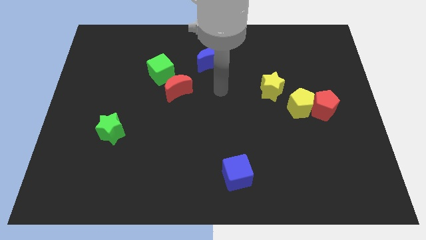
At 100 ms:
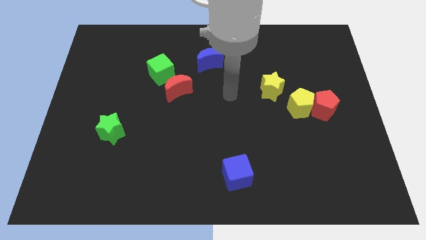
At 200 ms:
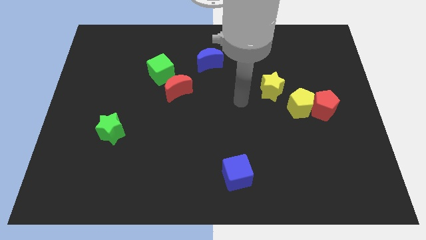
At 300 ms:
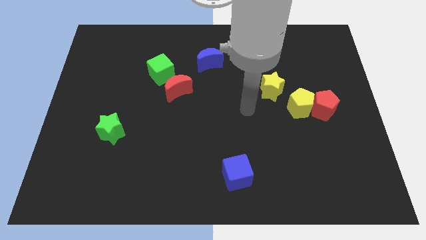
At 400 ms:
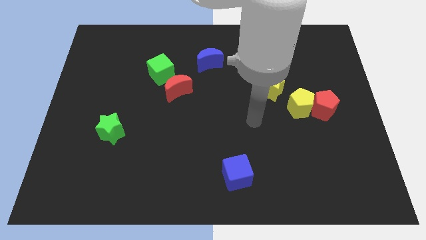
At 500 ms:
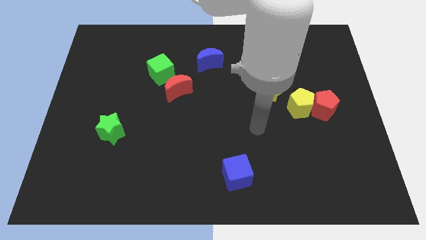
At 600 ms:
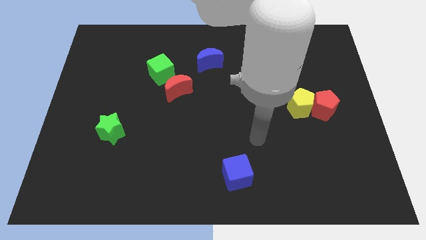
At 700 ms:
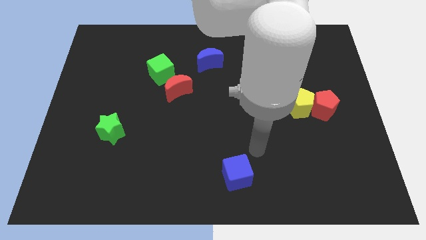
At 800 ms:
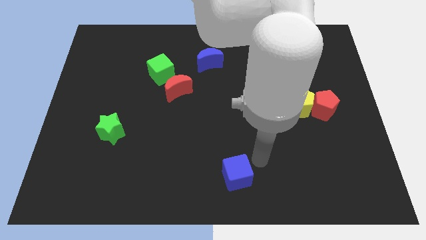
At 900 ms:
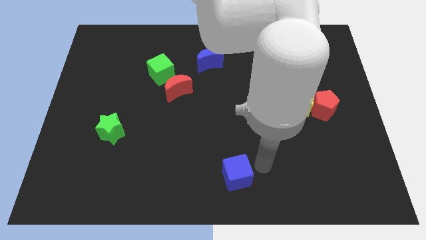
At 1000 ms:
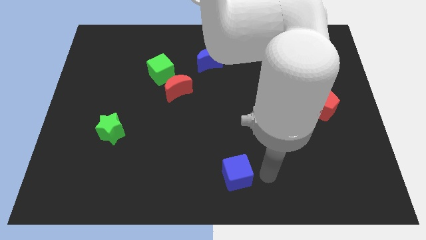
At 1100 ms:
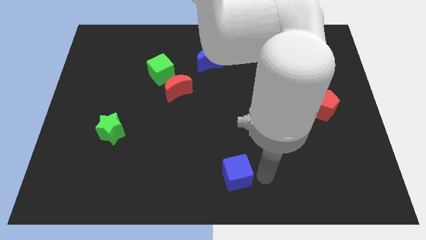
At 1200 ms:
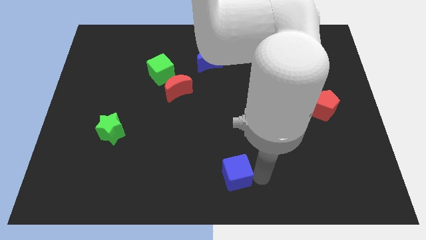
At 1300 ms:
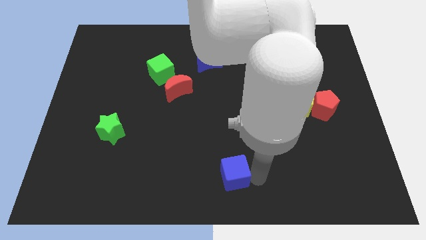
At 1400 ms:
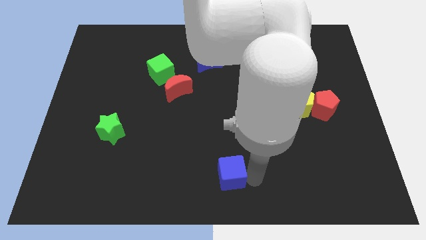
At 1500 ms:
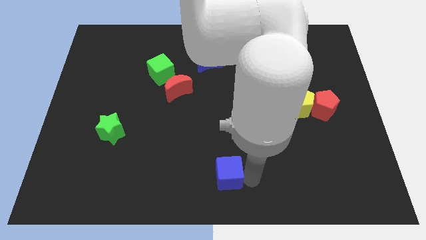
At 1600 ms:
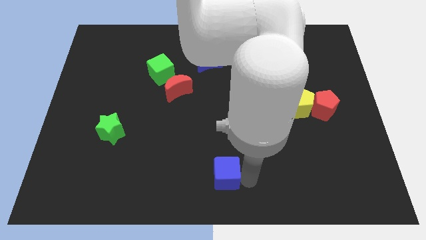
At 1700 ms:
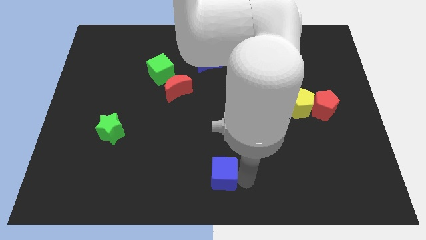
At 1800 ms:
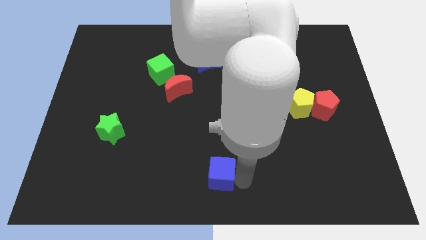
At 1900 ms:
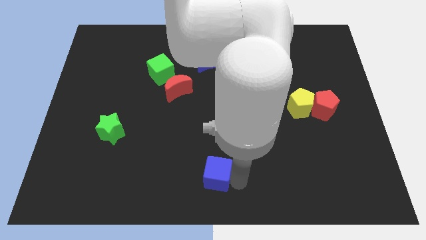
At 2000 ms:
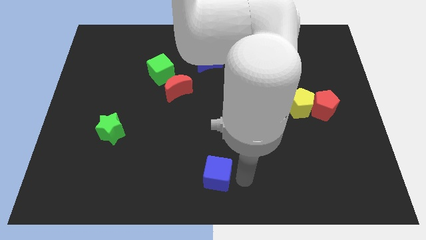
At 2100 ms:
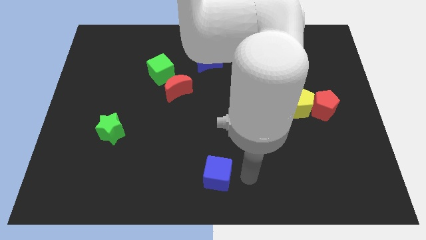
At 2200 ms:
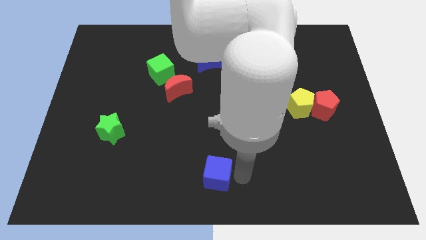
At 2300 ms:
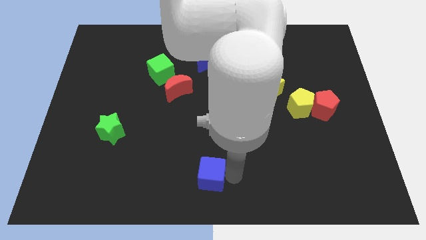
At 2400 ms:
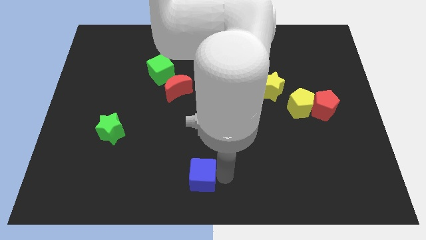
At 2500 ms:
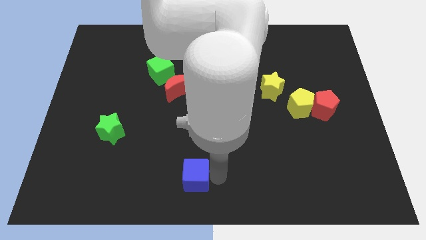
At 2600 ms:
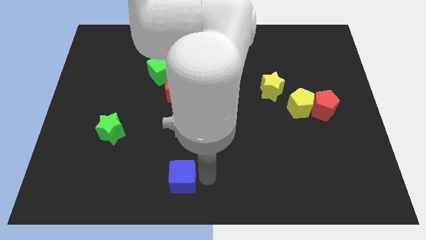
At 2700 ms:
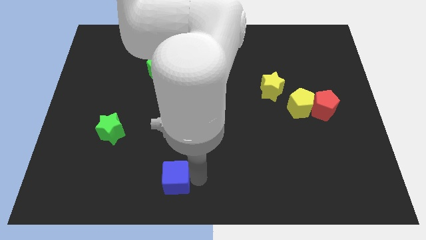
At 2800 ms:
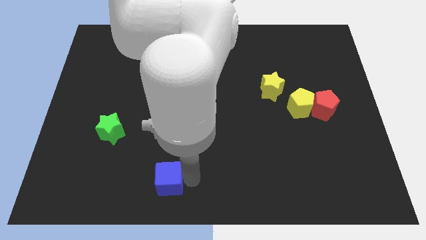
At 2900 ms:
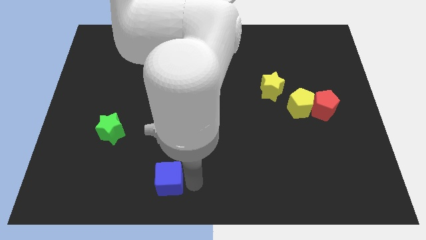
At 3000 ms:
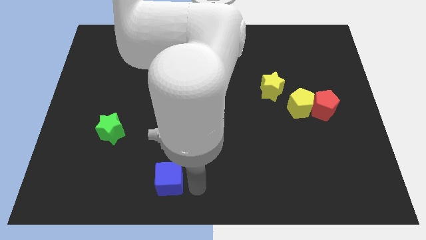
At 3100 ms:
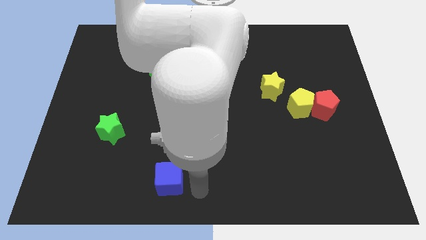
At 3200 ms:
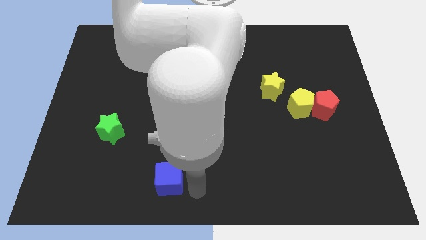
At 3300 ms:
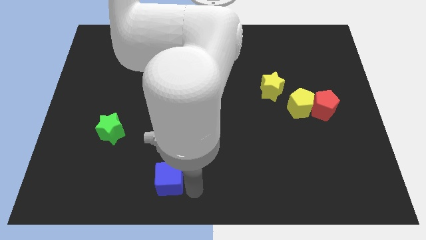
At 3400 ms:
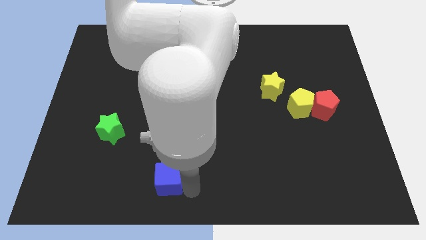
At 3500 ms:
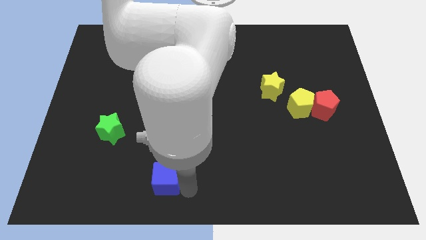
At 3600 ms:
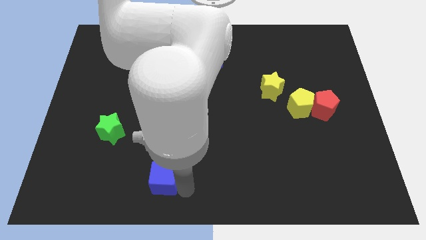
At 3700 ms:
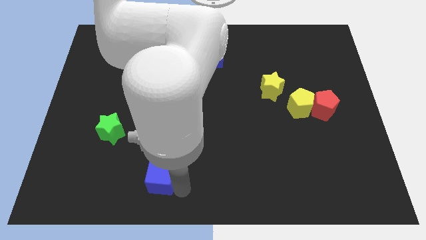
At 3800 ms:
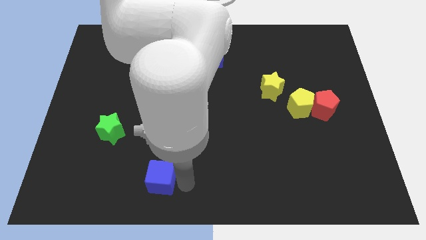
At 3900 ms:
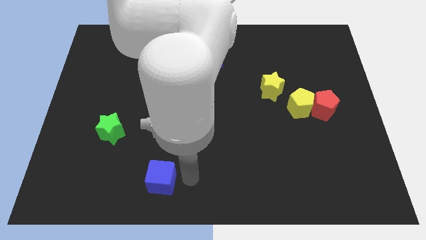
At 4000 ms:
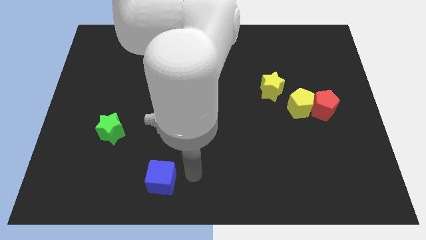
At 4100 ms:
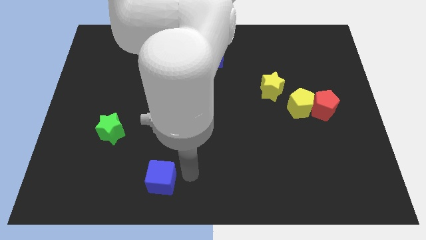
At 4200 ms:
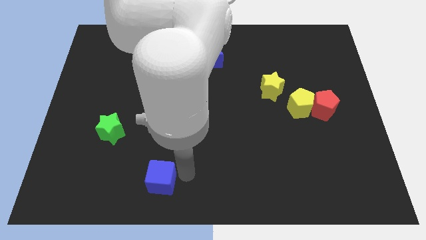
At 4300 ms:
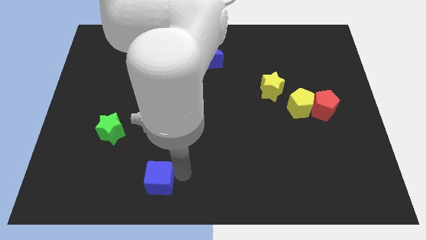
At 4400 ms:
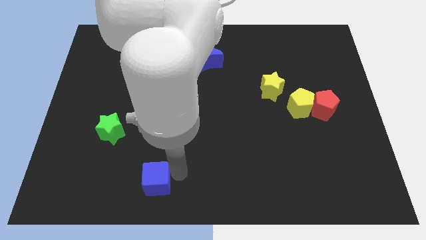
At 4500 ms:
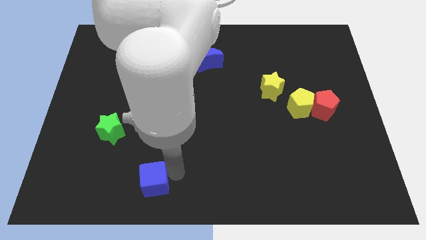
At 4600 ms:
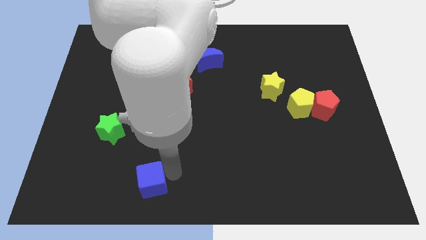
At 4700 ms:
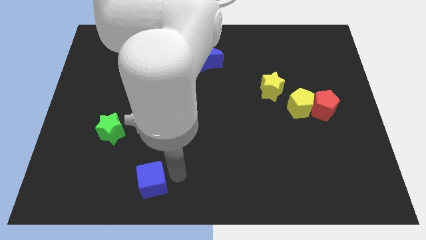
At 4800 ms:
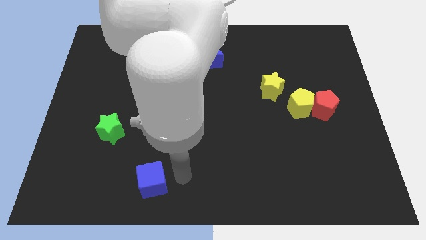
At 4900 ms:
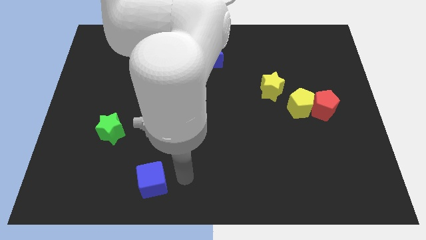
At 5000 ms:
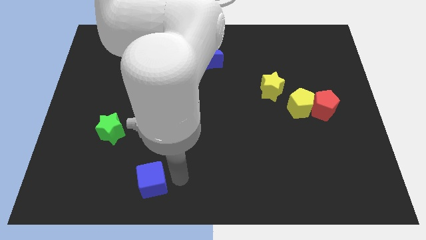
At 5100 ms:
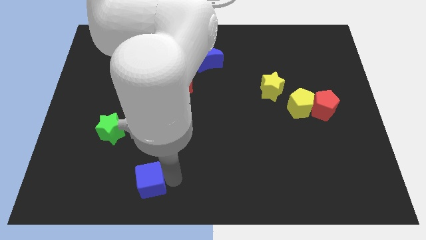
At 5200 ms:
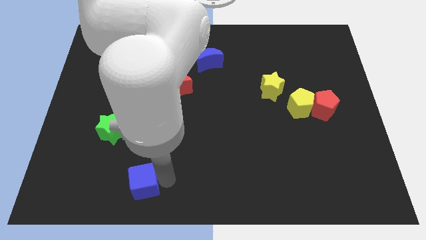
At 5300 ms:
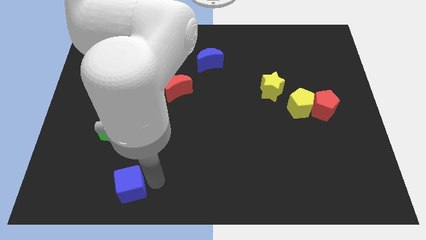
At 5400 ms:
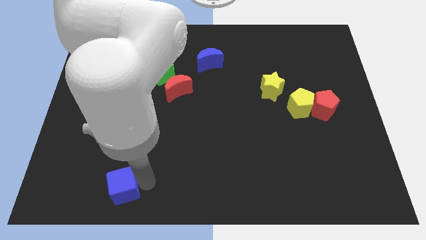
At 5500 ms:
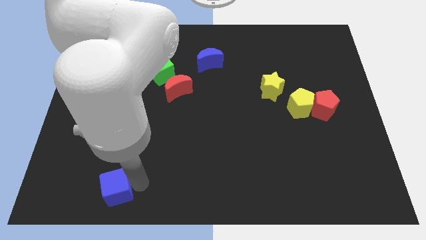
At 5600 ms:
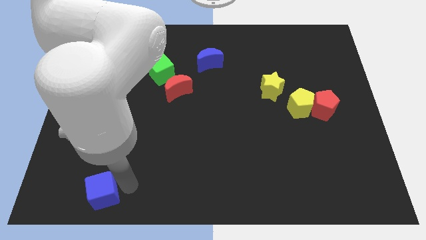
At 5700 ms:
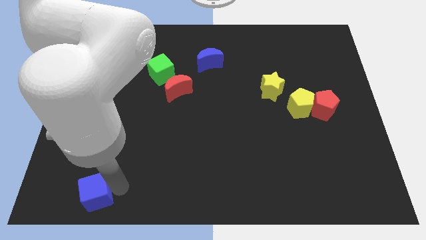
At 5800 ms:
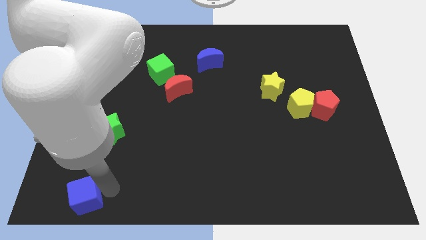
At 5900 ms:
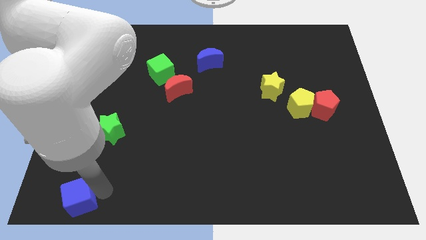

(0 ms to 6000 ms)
put the blue cube to the bottom left of the board
